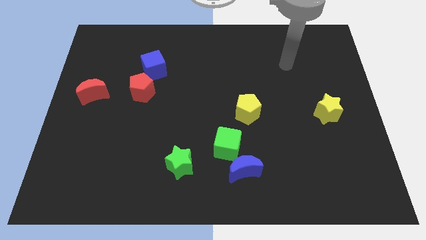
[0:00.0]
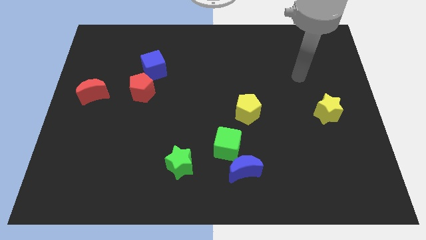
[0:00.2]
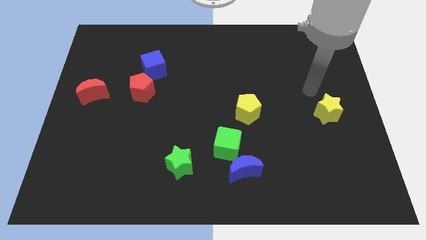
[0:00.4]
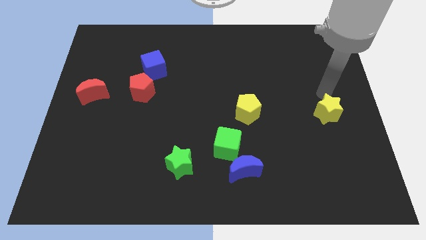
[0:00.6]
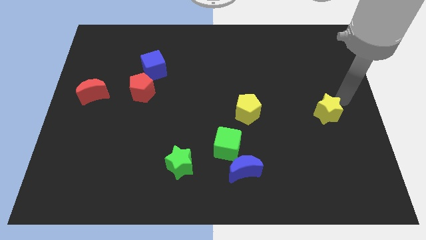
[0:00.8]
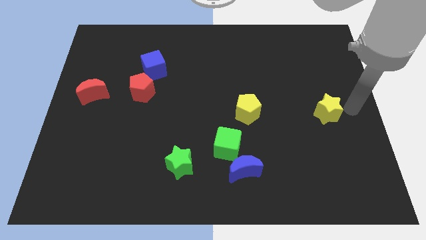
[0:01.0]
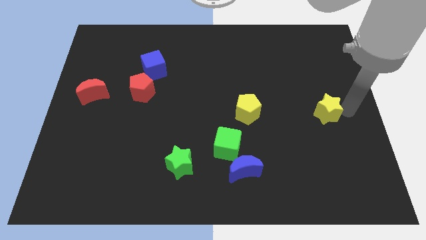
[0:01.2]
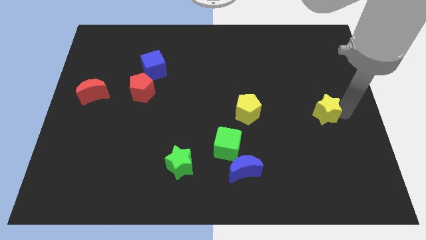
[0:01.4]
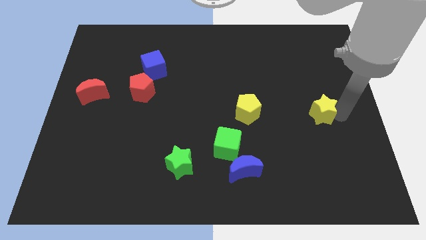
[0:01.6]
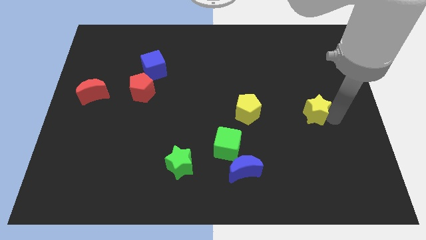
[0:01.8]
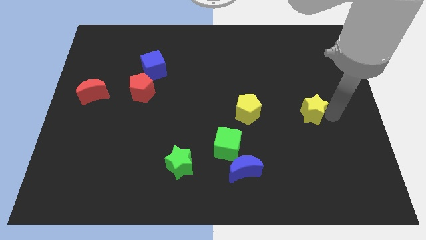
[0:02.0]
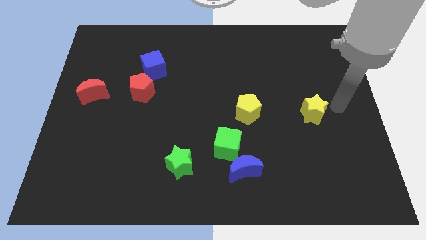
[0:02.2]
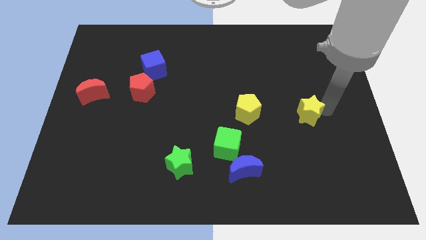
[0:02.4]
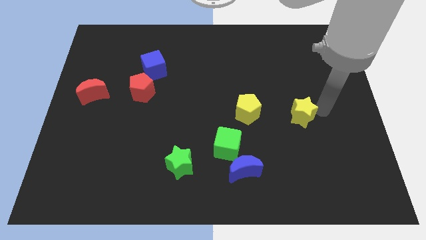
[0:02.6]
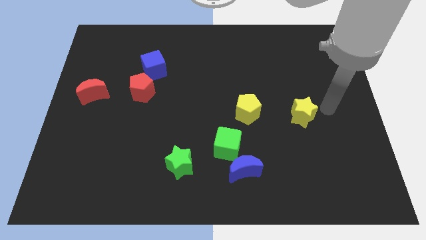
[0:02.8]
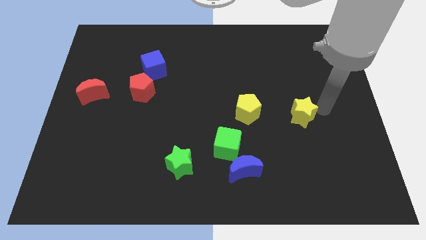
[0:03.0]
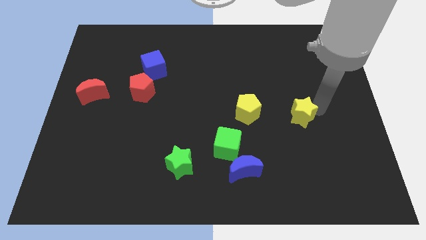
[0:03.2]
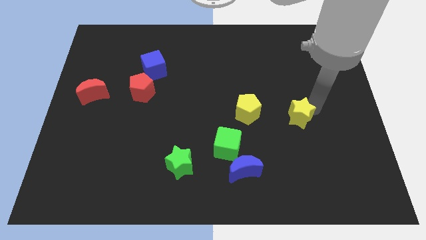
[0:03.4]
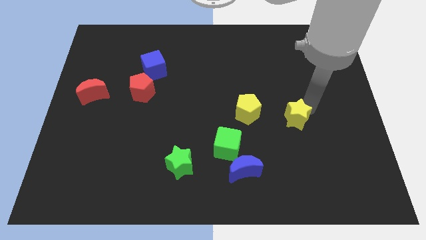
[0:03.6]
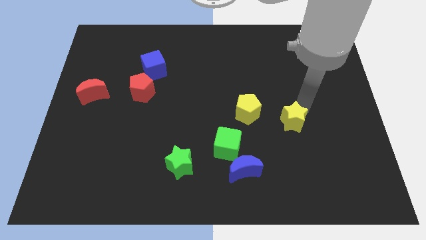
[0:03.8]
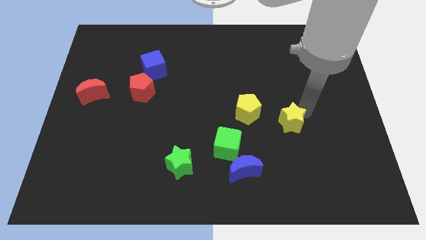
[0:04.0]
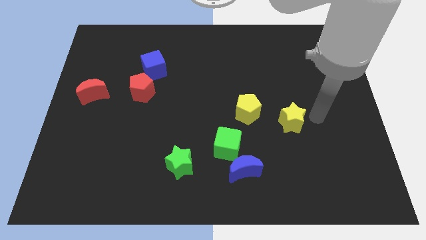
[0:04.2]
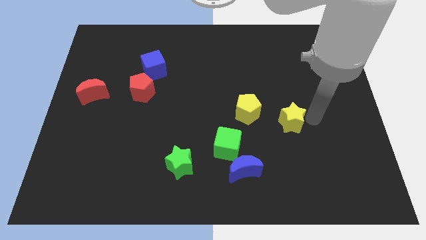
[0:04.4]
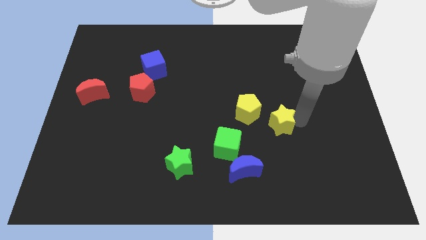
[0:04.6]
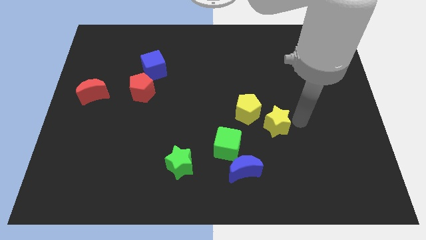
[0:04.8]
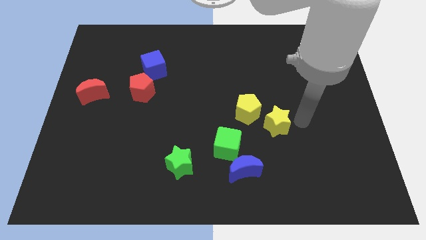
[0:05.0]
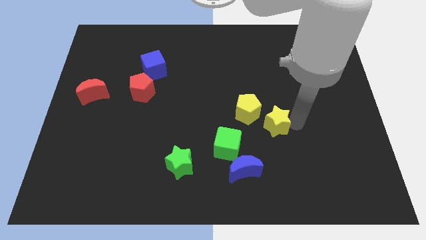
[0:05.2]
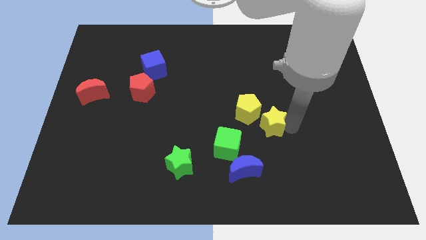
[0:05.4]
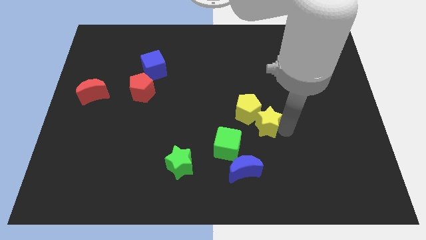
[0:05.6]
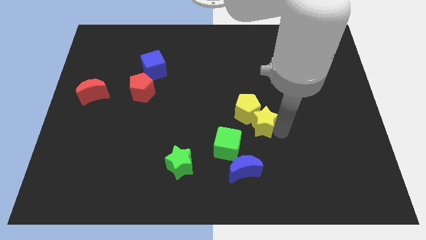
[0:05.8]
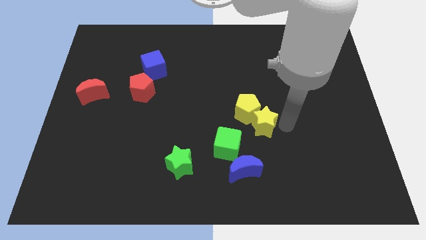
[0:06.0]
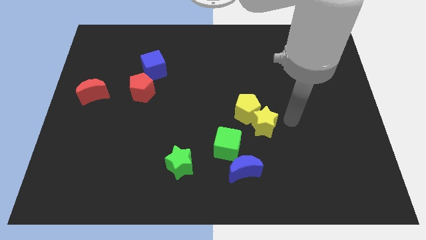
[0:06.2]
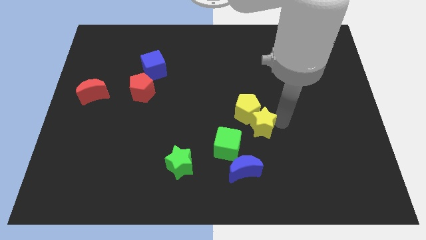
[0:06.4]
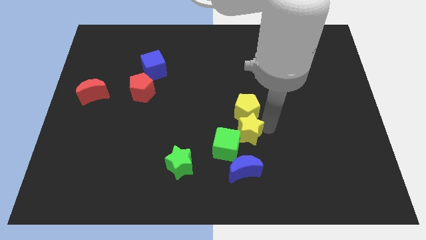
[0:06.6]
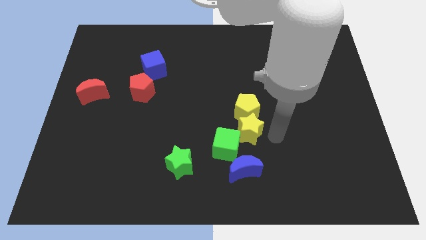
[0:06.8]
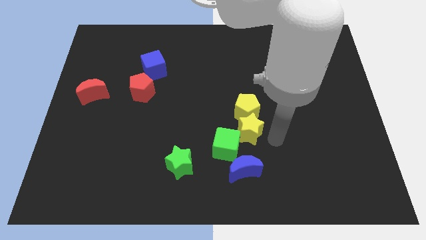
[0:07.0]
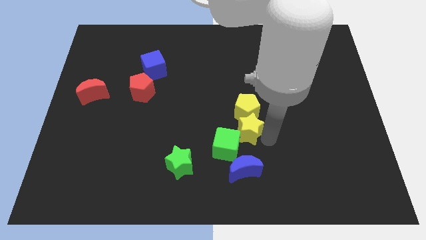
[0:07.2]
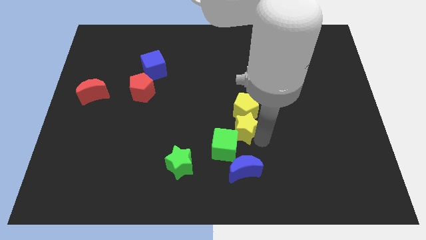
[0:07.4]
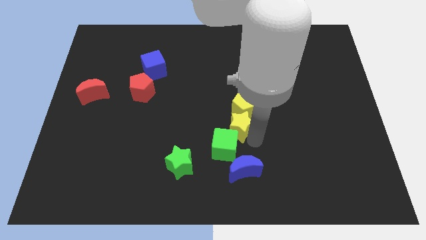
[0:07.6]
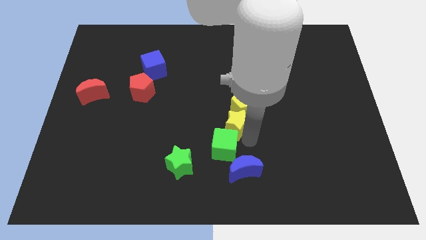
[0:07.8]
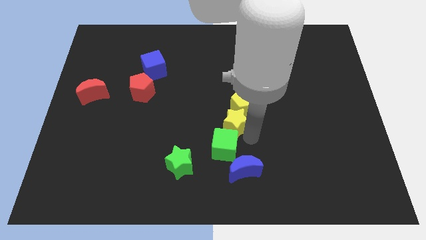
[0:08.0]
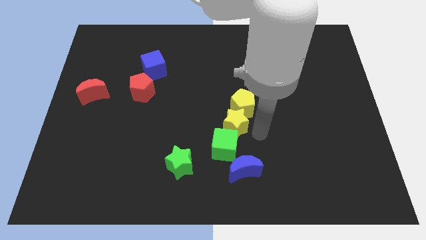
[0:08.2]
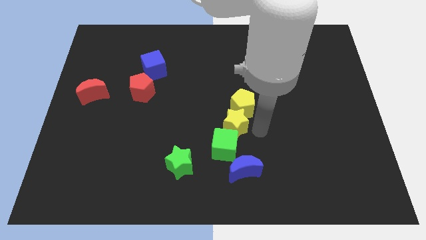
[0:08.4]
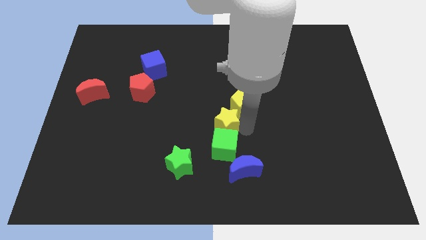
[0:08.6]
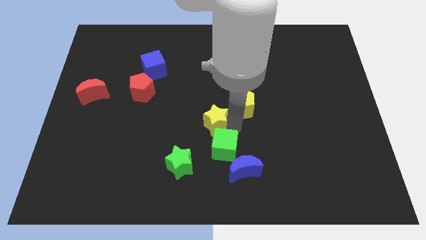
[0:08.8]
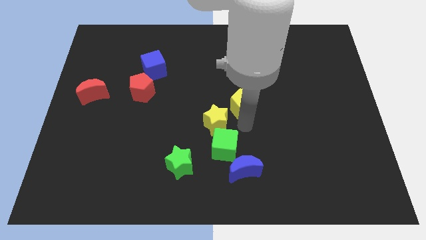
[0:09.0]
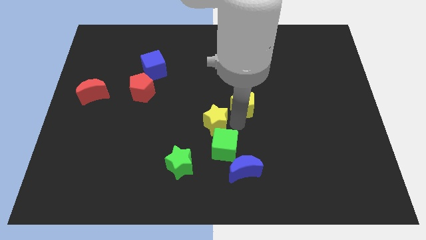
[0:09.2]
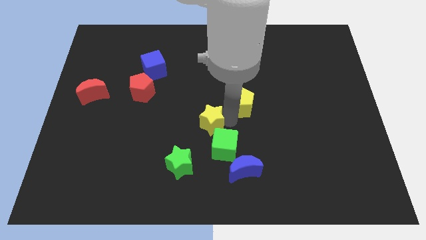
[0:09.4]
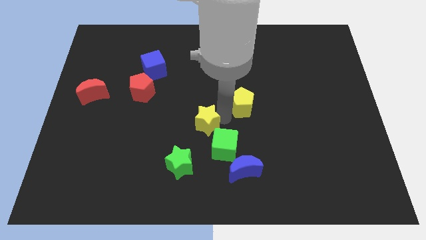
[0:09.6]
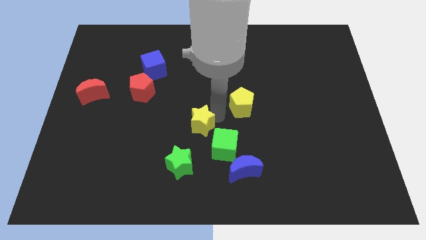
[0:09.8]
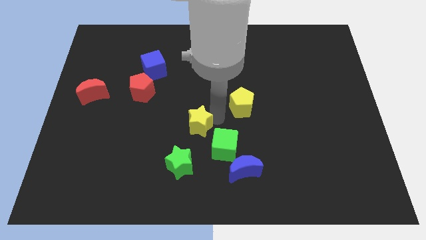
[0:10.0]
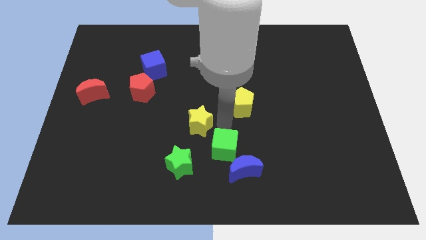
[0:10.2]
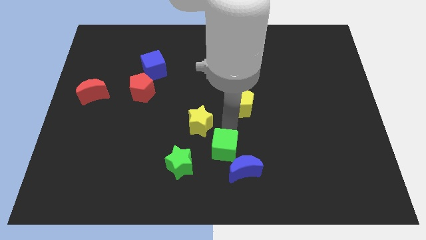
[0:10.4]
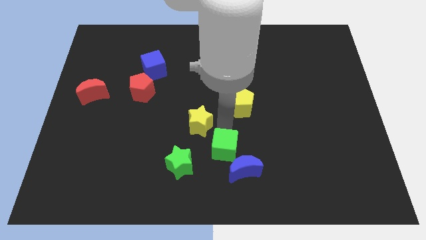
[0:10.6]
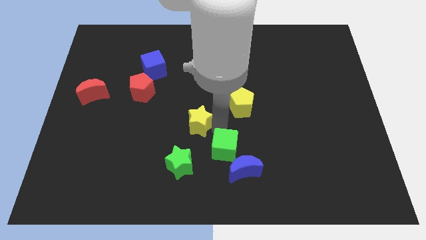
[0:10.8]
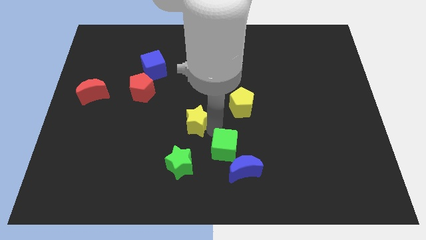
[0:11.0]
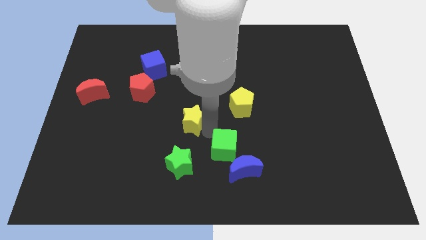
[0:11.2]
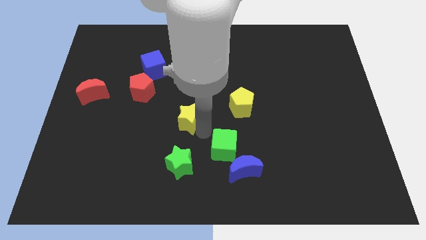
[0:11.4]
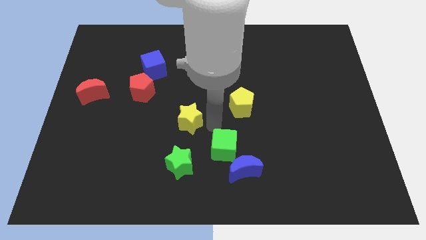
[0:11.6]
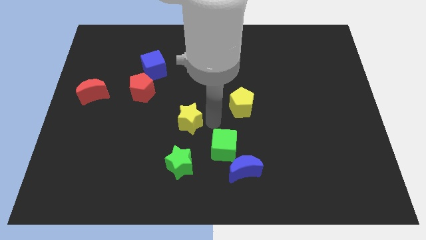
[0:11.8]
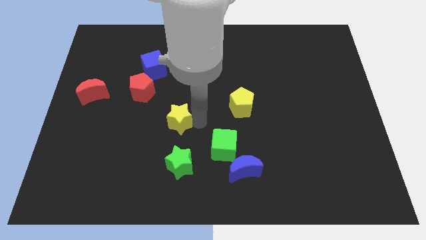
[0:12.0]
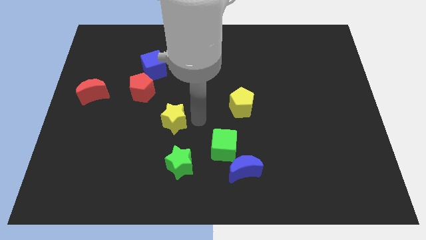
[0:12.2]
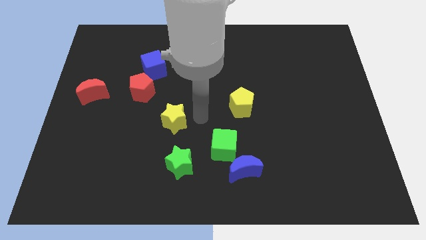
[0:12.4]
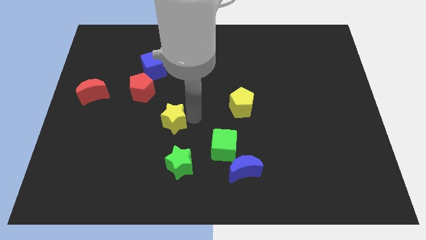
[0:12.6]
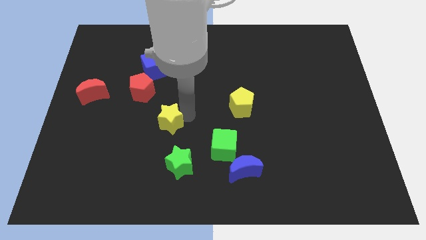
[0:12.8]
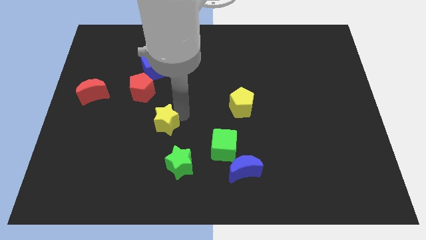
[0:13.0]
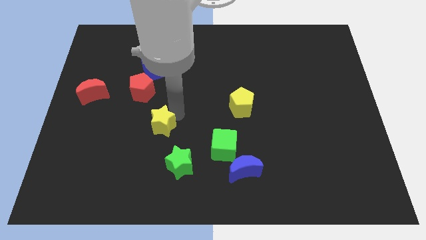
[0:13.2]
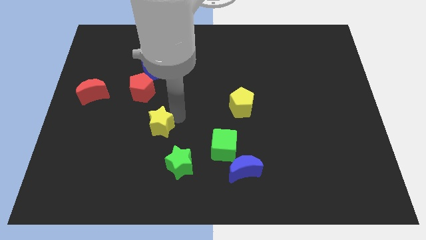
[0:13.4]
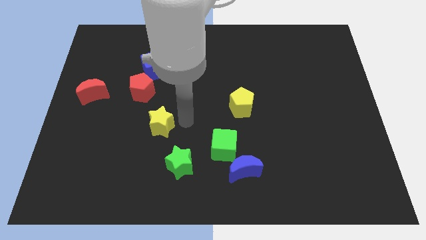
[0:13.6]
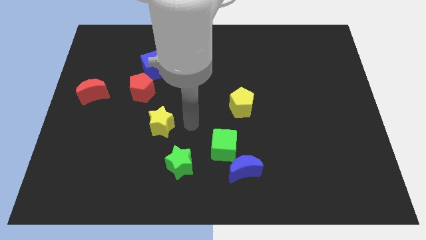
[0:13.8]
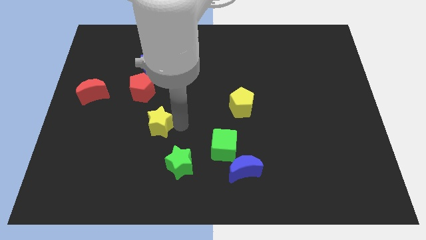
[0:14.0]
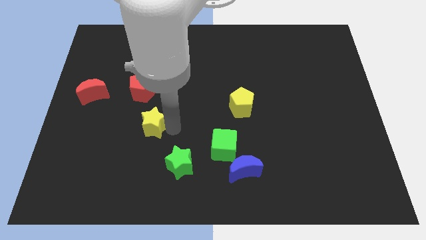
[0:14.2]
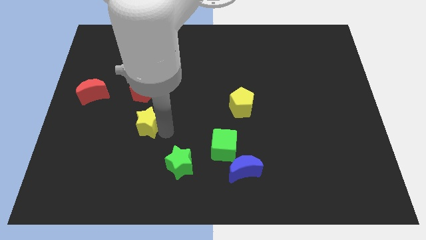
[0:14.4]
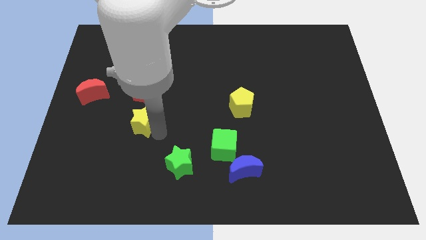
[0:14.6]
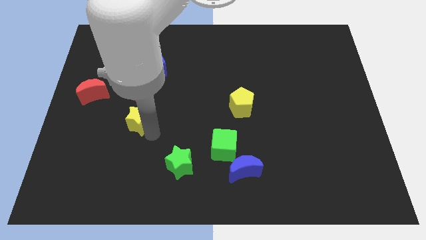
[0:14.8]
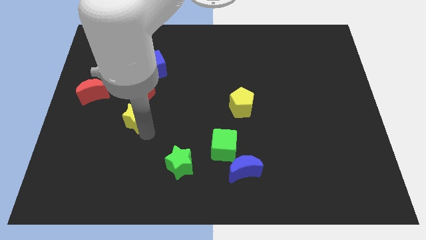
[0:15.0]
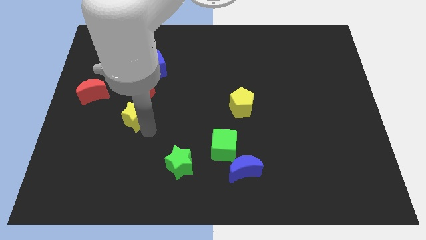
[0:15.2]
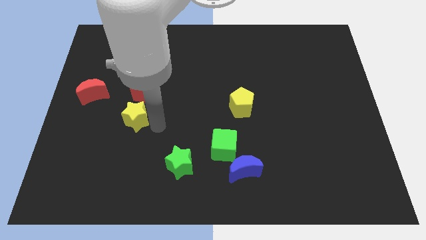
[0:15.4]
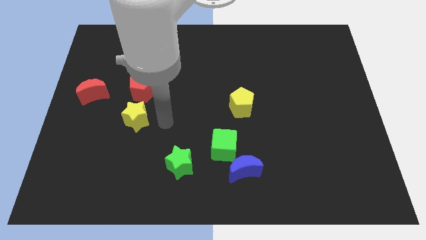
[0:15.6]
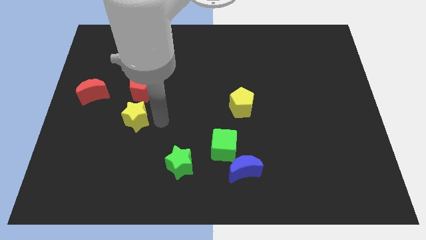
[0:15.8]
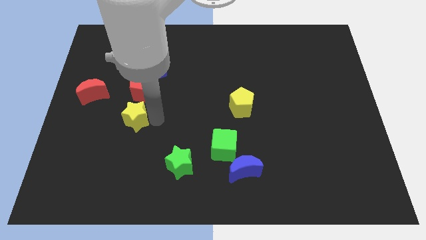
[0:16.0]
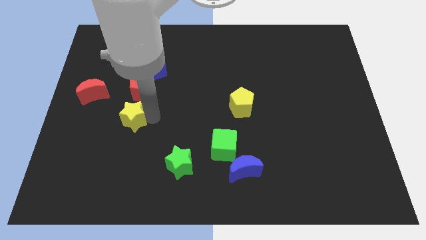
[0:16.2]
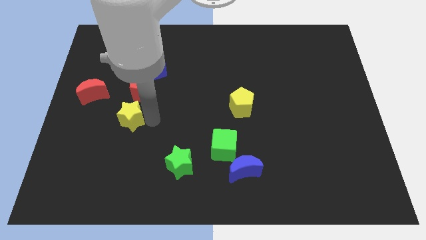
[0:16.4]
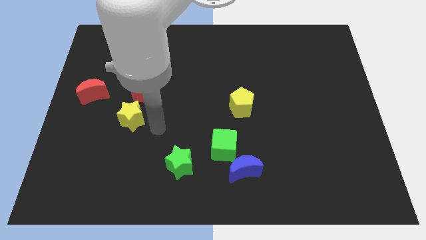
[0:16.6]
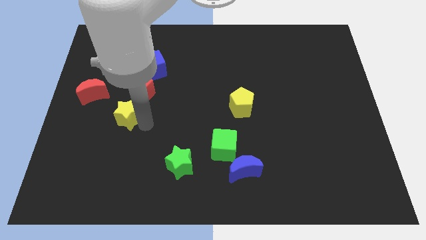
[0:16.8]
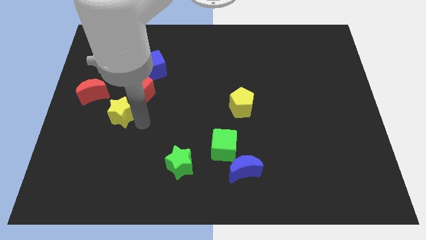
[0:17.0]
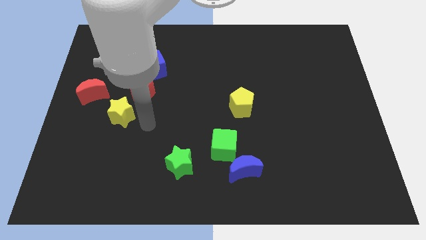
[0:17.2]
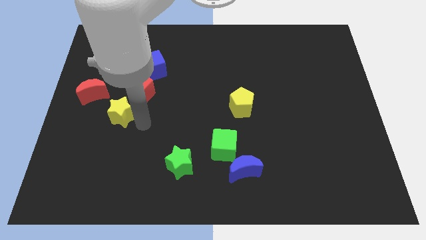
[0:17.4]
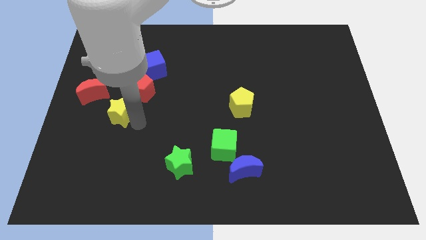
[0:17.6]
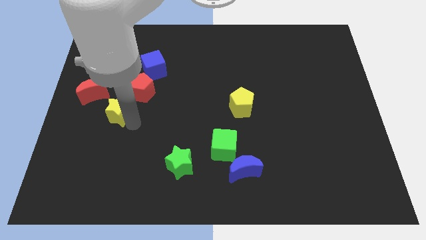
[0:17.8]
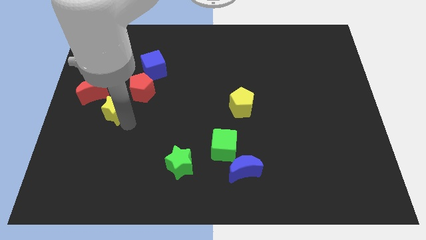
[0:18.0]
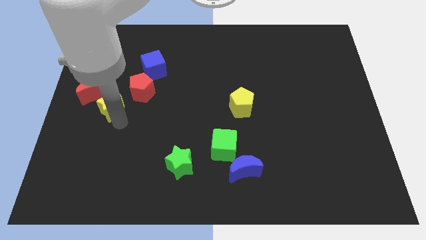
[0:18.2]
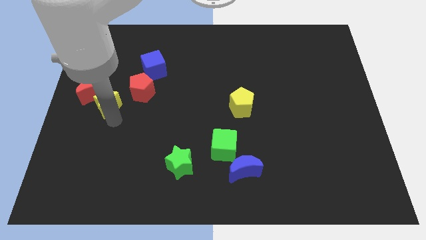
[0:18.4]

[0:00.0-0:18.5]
put the yellow star to the red moon
